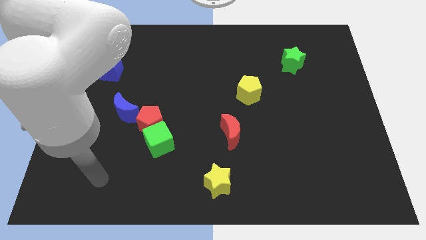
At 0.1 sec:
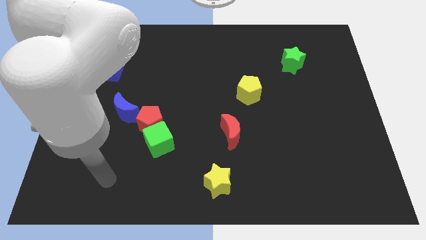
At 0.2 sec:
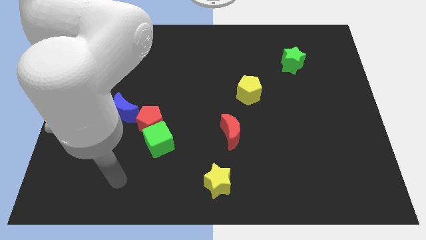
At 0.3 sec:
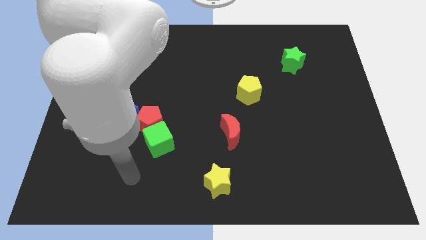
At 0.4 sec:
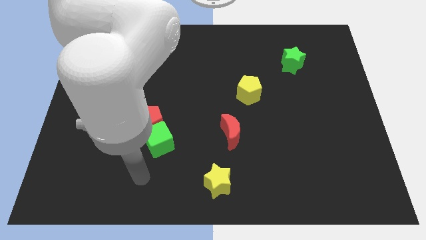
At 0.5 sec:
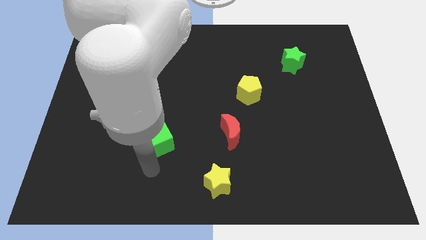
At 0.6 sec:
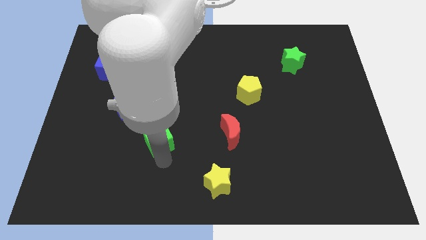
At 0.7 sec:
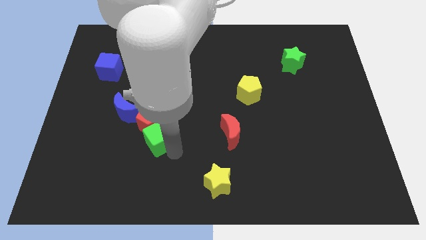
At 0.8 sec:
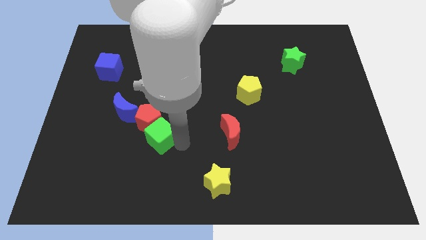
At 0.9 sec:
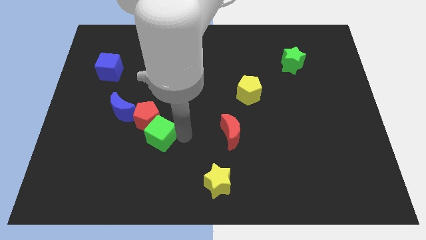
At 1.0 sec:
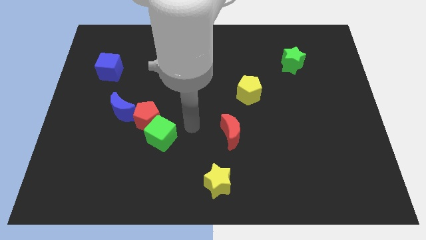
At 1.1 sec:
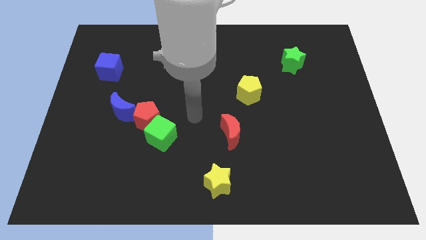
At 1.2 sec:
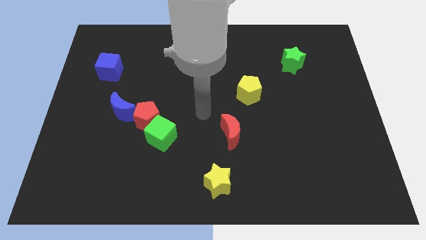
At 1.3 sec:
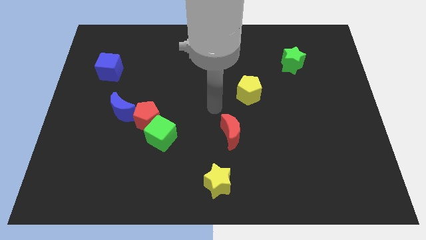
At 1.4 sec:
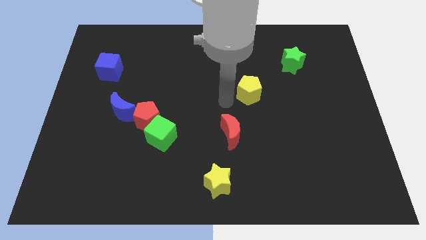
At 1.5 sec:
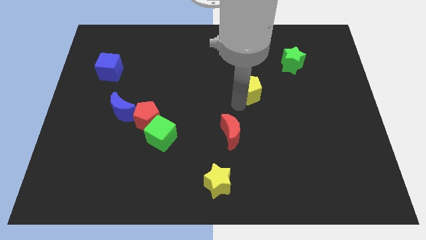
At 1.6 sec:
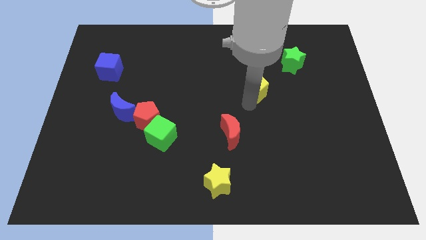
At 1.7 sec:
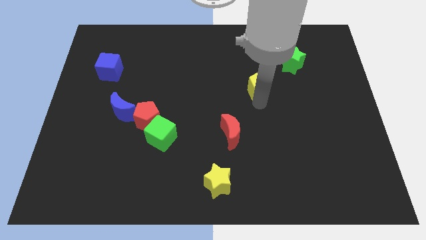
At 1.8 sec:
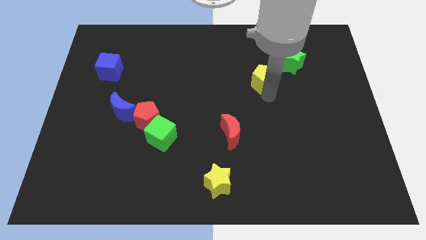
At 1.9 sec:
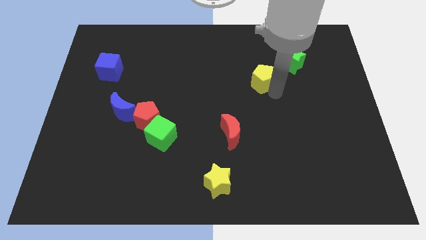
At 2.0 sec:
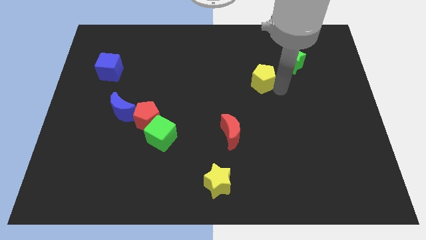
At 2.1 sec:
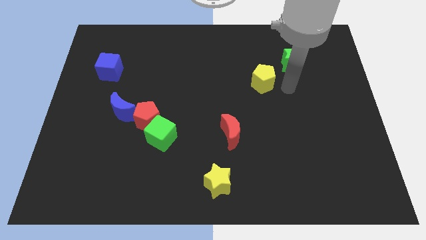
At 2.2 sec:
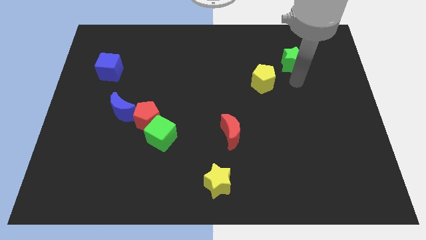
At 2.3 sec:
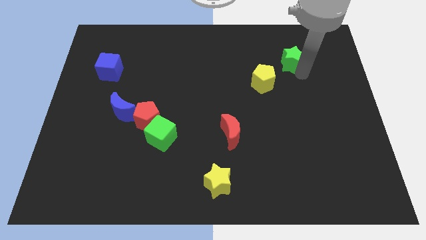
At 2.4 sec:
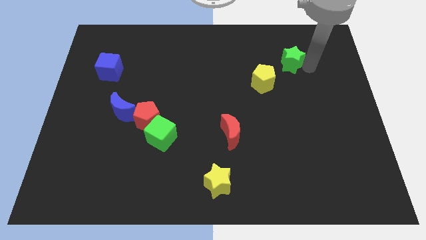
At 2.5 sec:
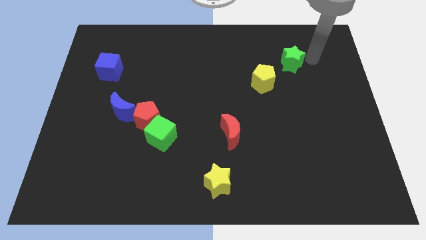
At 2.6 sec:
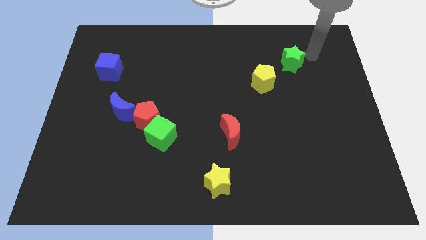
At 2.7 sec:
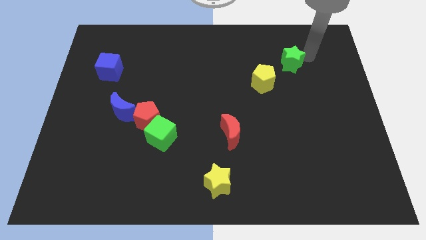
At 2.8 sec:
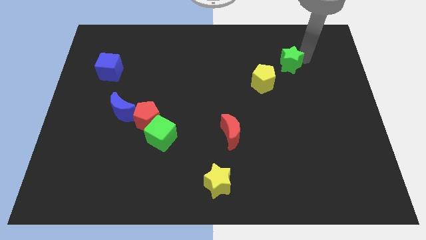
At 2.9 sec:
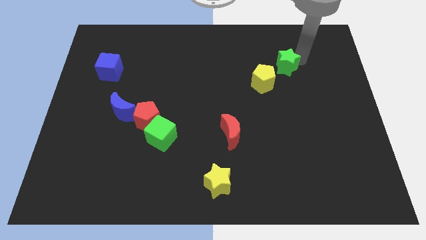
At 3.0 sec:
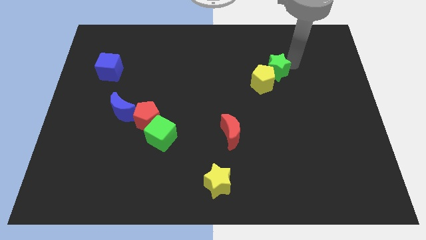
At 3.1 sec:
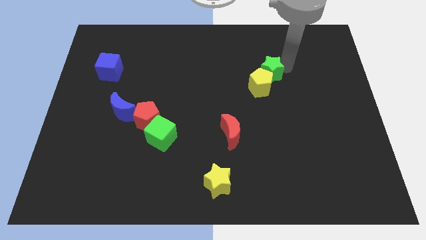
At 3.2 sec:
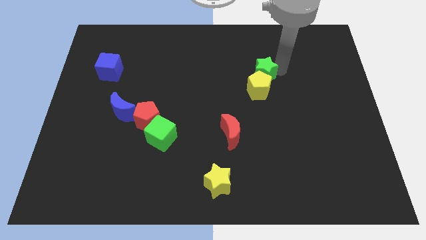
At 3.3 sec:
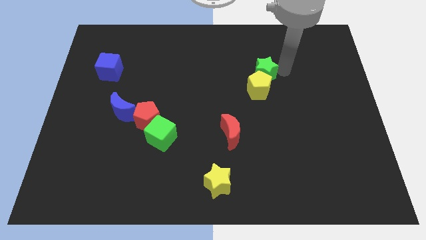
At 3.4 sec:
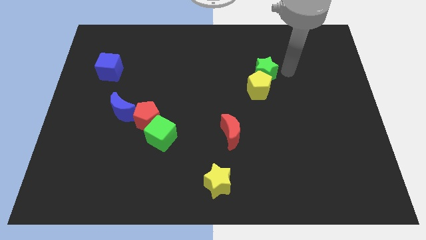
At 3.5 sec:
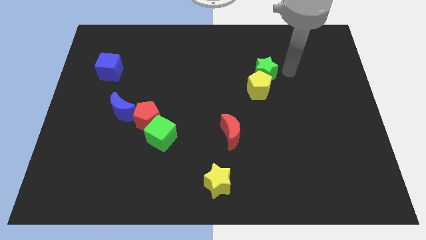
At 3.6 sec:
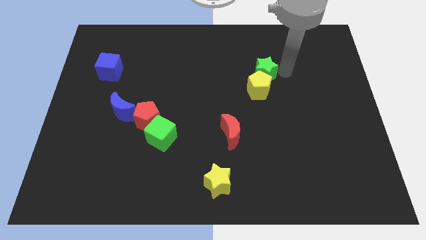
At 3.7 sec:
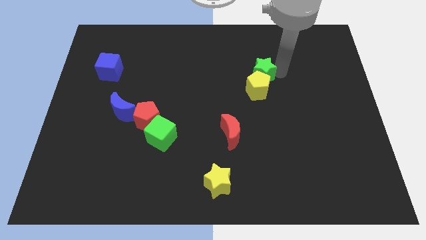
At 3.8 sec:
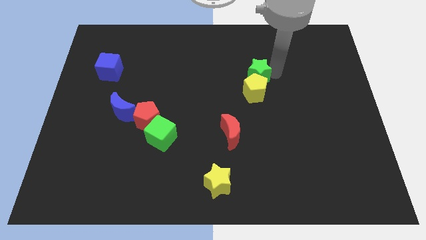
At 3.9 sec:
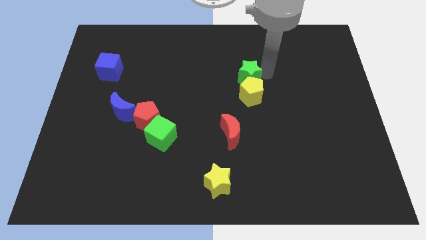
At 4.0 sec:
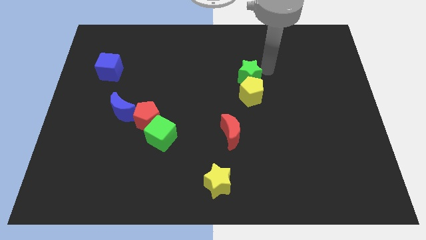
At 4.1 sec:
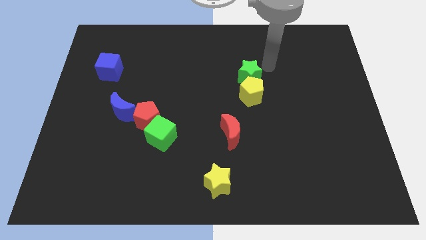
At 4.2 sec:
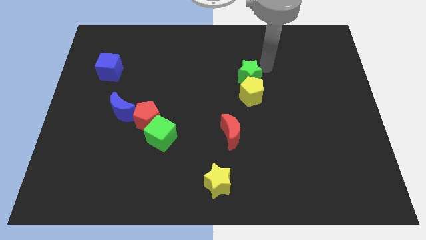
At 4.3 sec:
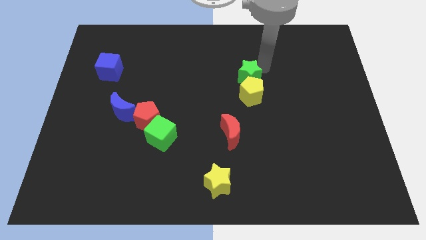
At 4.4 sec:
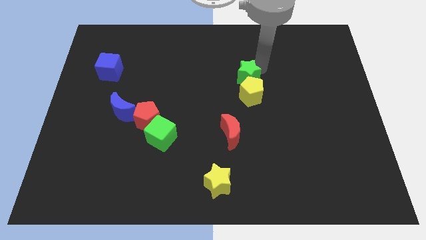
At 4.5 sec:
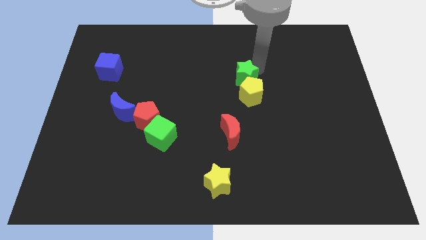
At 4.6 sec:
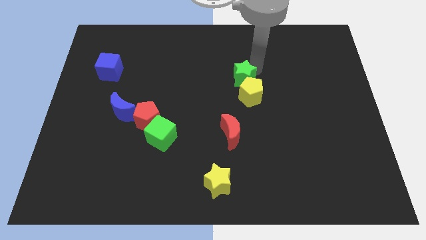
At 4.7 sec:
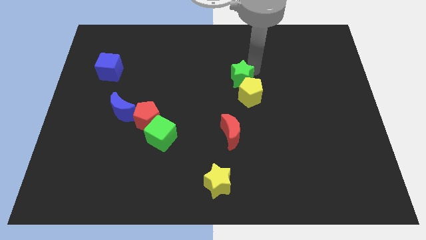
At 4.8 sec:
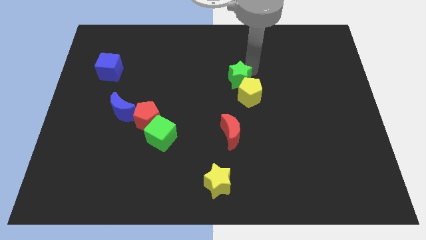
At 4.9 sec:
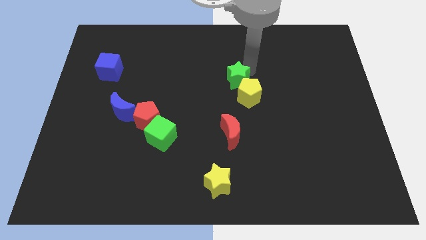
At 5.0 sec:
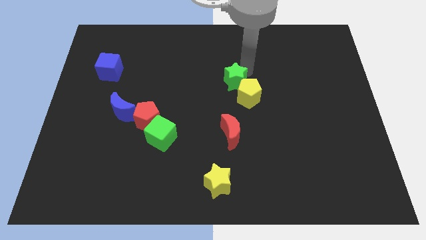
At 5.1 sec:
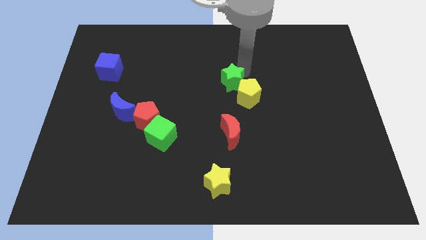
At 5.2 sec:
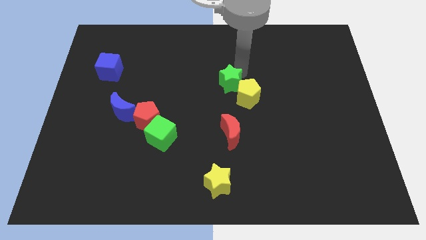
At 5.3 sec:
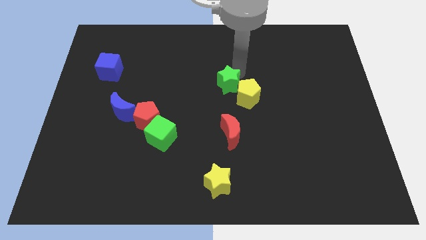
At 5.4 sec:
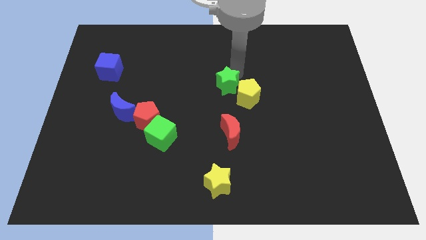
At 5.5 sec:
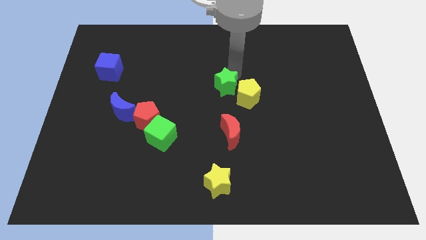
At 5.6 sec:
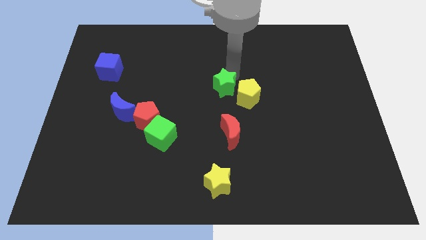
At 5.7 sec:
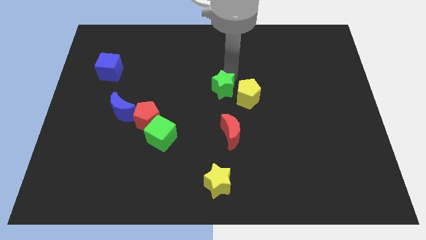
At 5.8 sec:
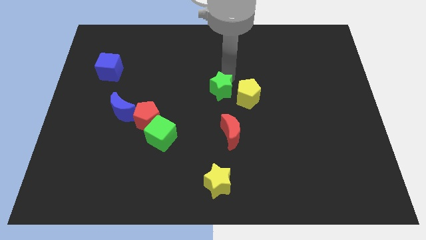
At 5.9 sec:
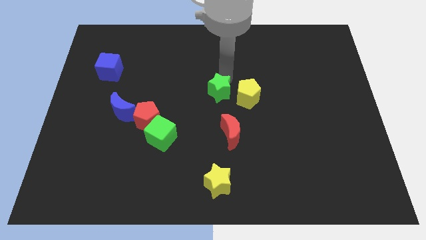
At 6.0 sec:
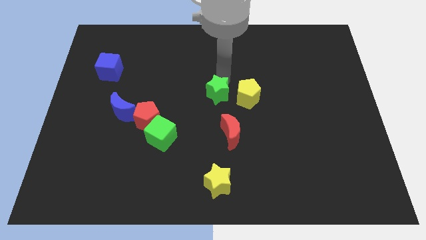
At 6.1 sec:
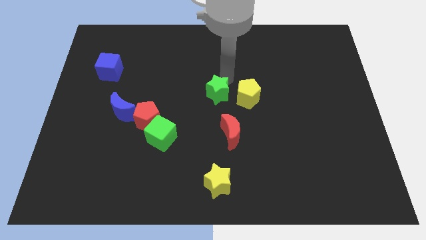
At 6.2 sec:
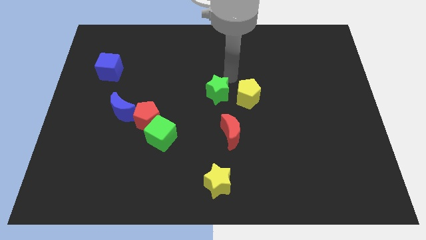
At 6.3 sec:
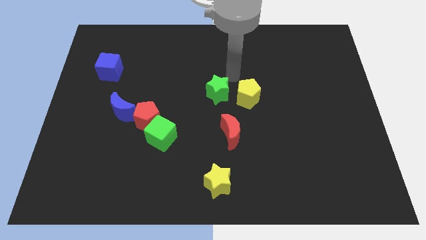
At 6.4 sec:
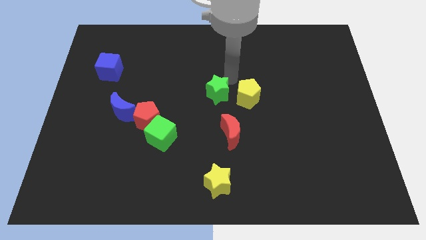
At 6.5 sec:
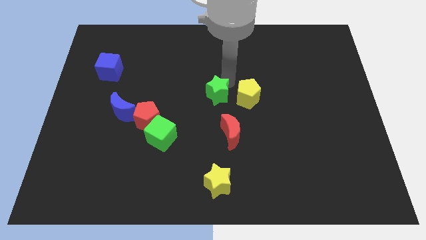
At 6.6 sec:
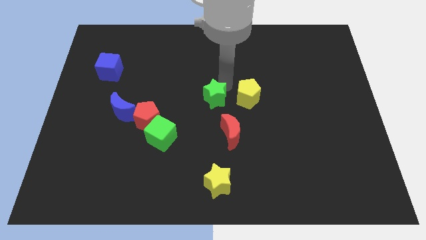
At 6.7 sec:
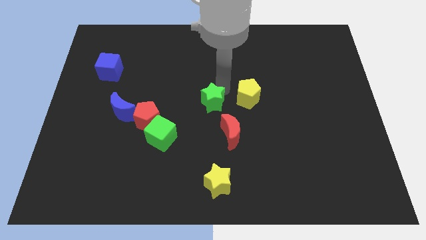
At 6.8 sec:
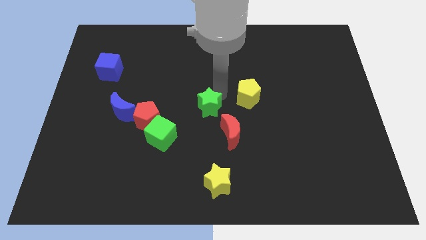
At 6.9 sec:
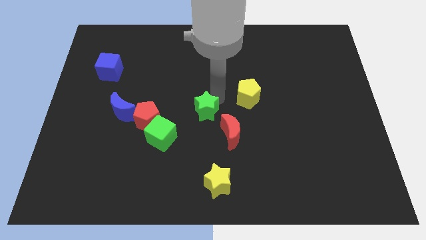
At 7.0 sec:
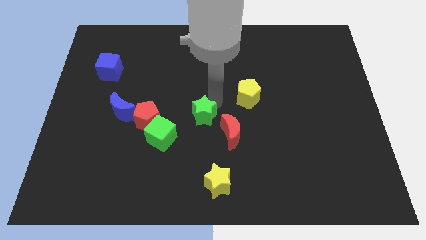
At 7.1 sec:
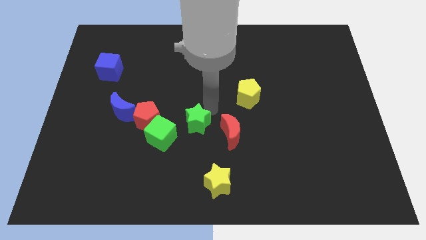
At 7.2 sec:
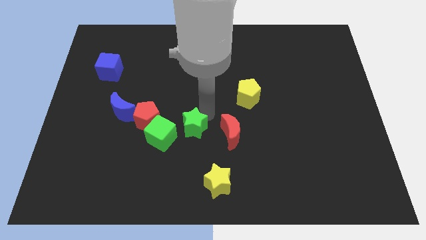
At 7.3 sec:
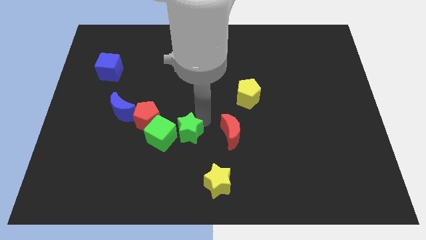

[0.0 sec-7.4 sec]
push the green star diagonally down and to the right of the red pentagon
